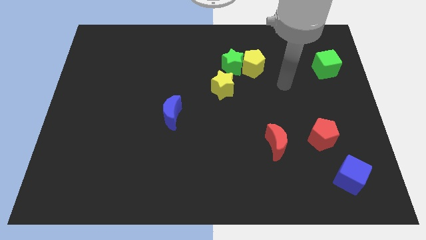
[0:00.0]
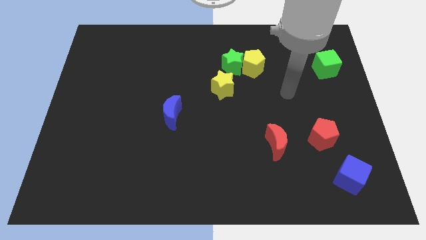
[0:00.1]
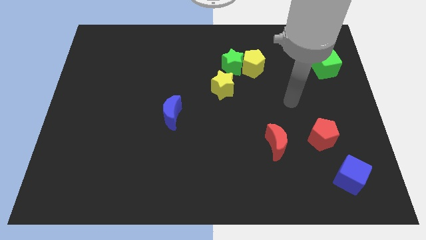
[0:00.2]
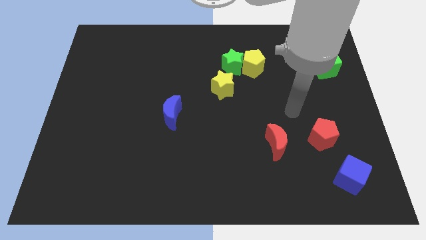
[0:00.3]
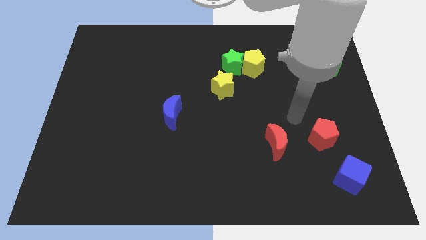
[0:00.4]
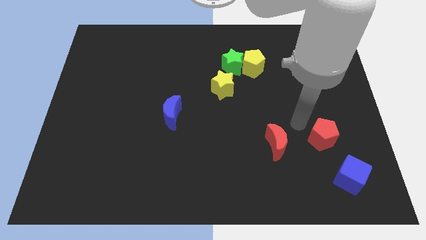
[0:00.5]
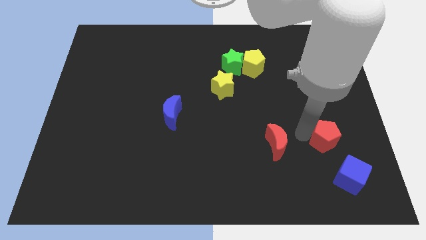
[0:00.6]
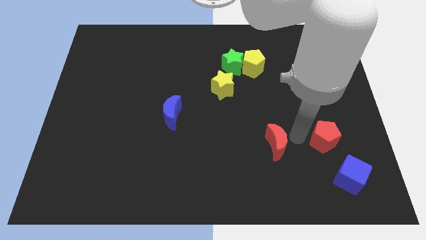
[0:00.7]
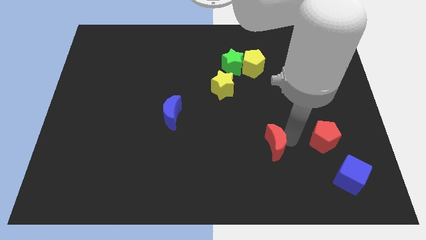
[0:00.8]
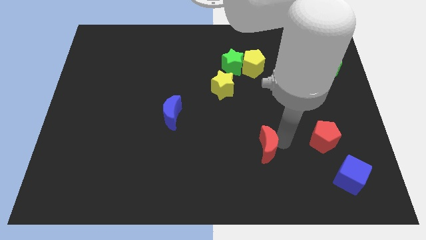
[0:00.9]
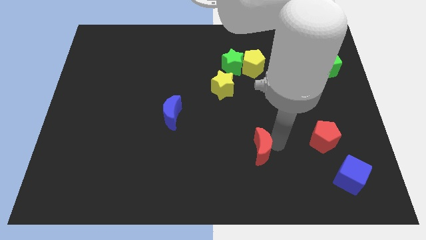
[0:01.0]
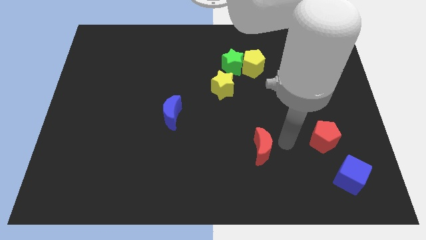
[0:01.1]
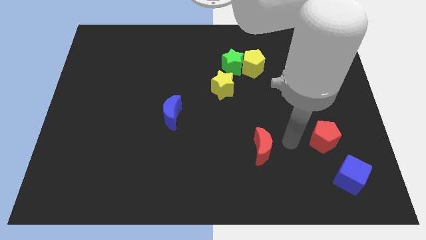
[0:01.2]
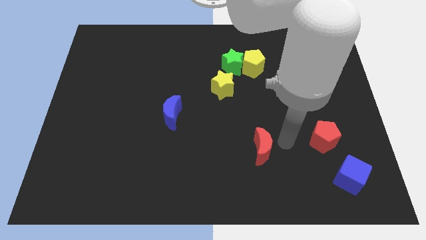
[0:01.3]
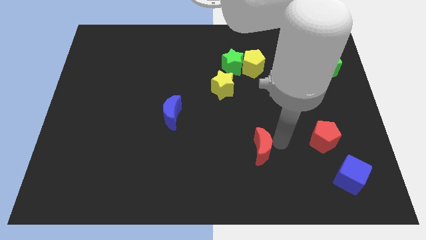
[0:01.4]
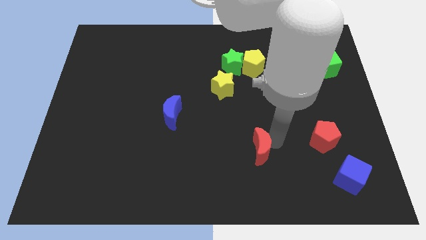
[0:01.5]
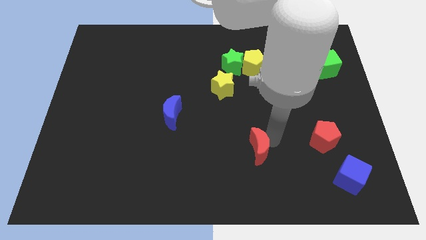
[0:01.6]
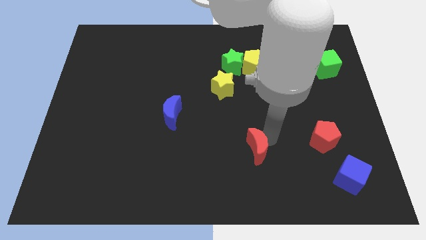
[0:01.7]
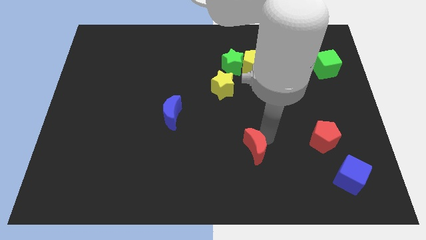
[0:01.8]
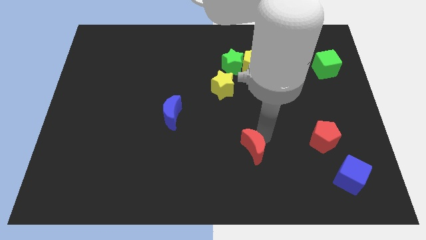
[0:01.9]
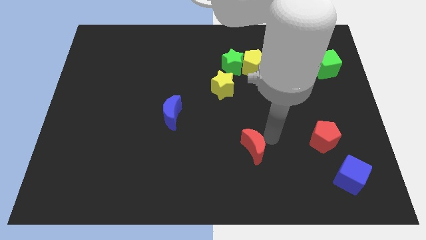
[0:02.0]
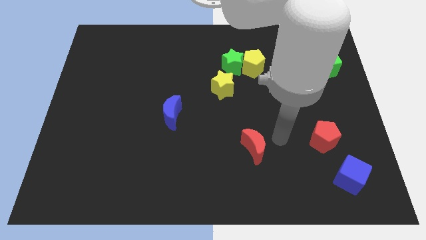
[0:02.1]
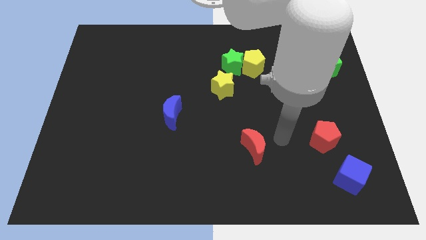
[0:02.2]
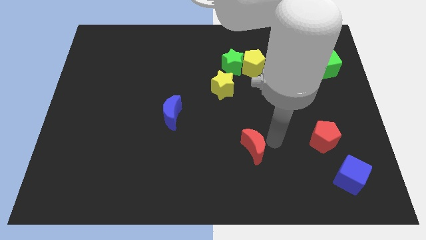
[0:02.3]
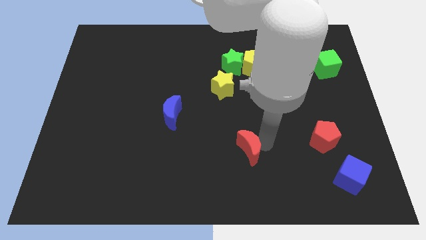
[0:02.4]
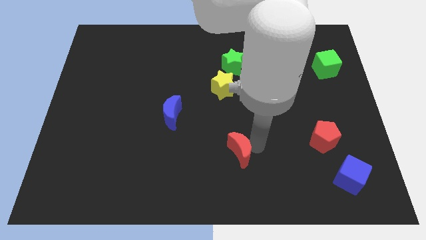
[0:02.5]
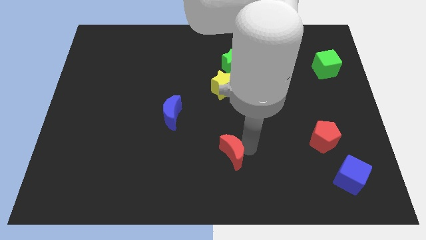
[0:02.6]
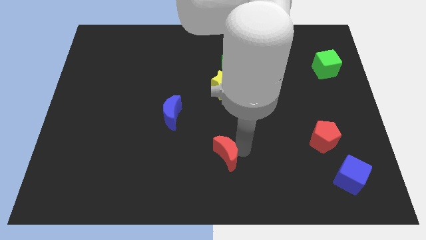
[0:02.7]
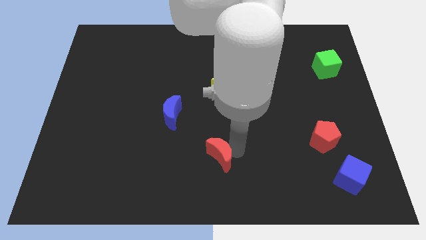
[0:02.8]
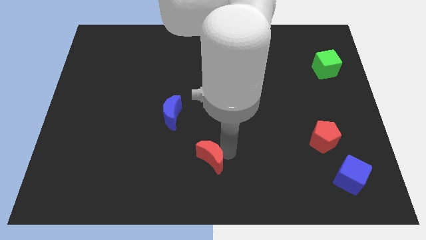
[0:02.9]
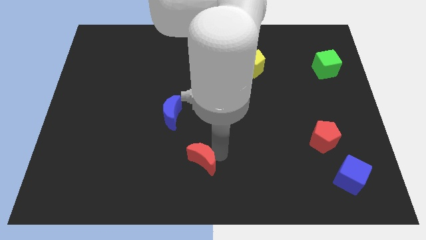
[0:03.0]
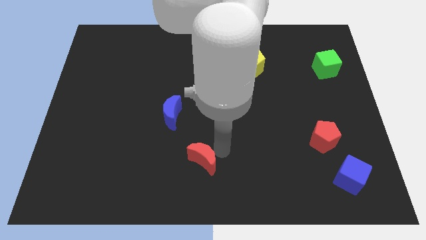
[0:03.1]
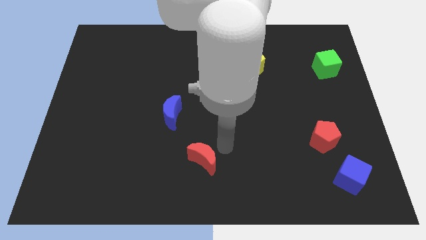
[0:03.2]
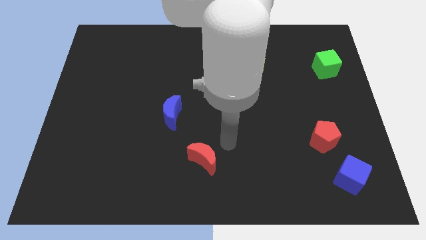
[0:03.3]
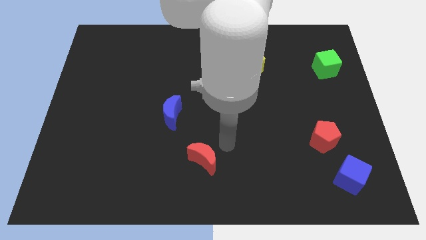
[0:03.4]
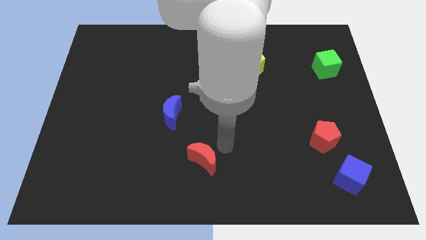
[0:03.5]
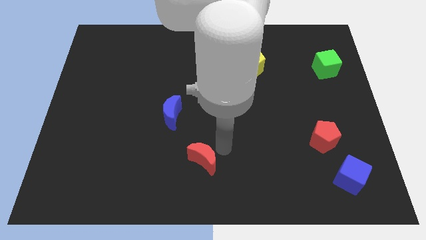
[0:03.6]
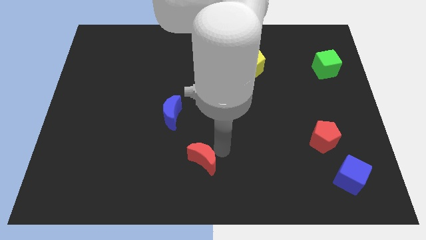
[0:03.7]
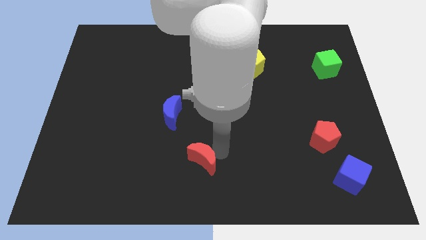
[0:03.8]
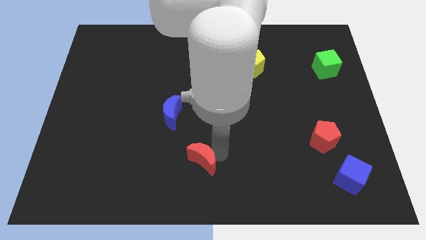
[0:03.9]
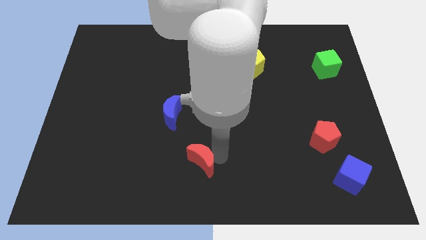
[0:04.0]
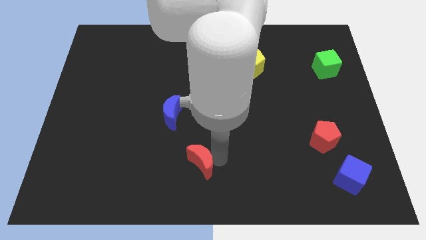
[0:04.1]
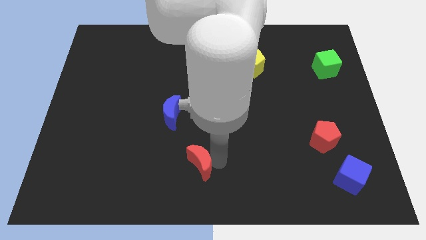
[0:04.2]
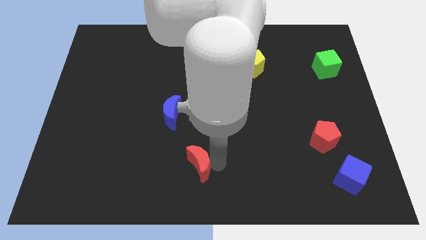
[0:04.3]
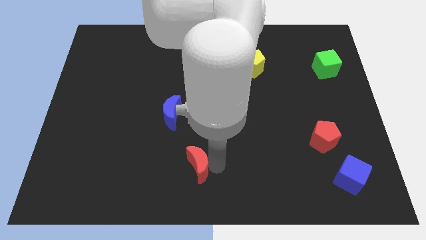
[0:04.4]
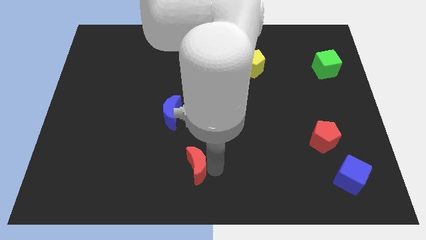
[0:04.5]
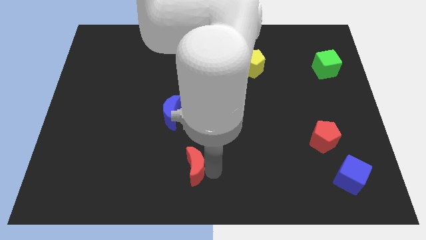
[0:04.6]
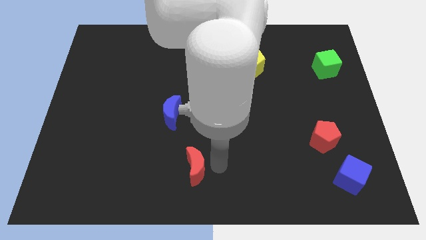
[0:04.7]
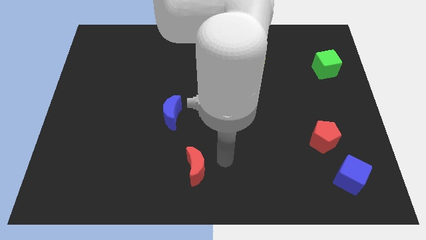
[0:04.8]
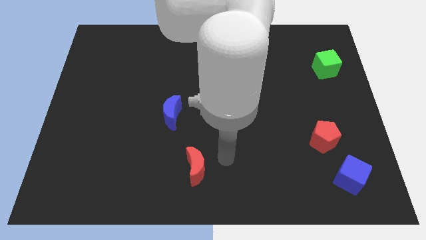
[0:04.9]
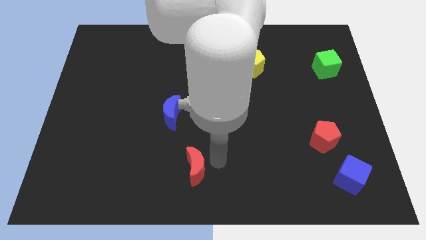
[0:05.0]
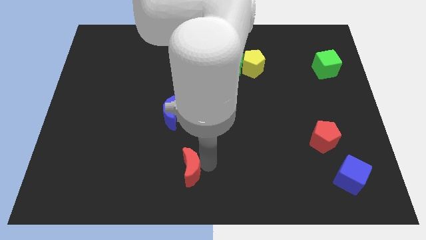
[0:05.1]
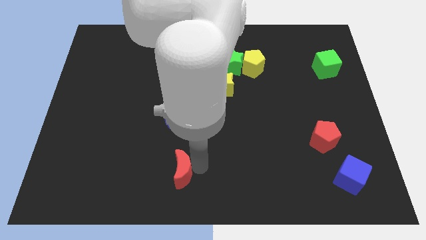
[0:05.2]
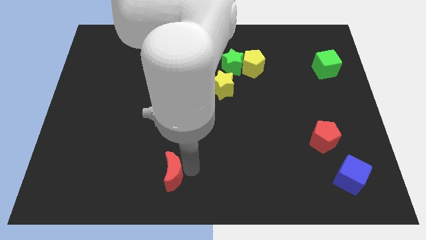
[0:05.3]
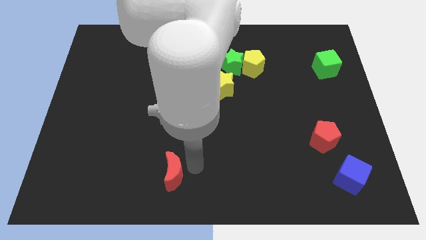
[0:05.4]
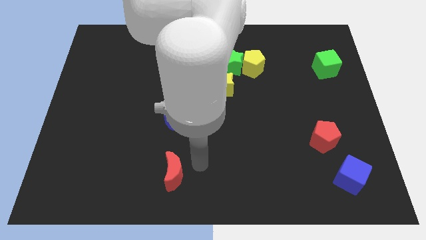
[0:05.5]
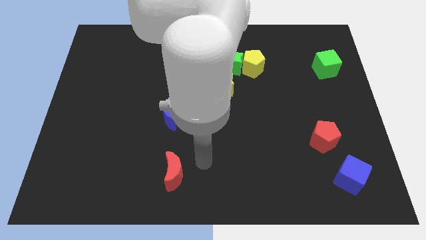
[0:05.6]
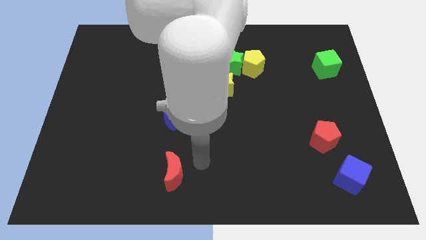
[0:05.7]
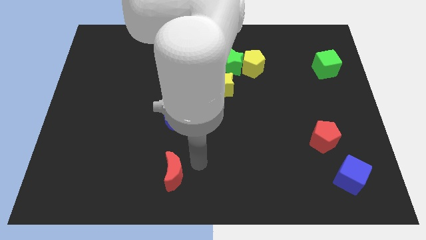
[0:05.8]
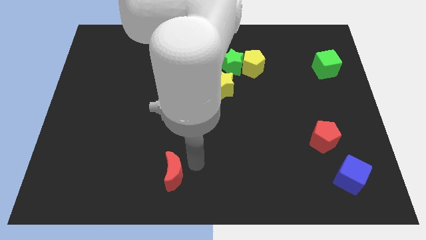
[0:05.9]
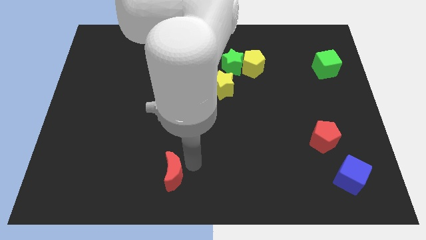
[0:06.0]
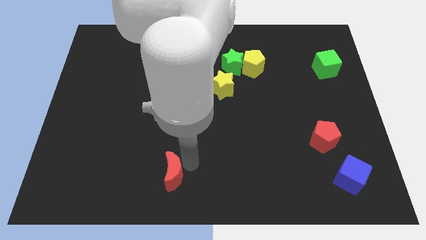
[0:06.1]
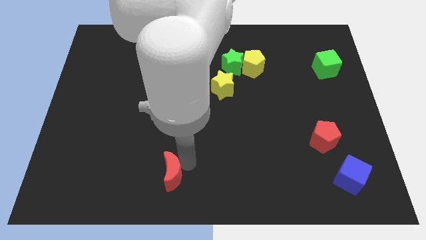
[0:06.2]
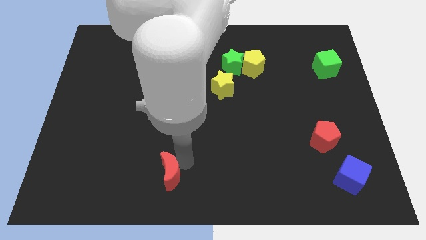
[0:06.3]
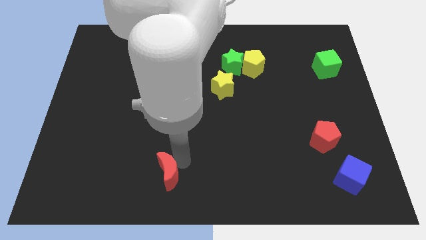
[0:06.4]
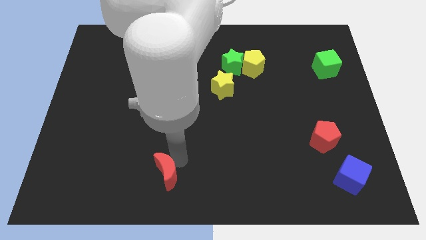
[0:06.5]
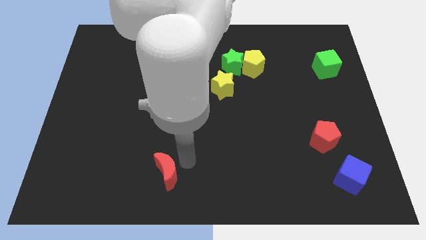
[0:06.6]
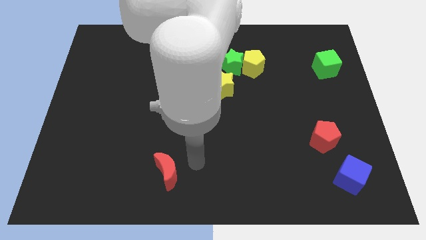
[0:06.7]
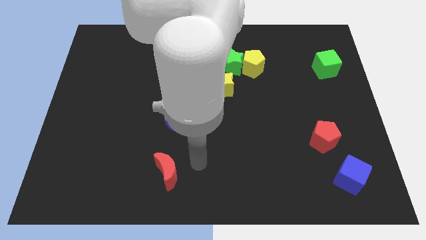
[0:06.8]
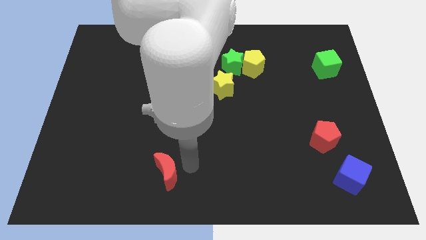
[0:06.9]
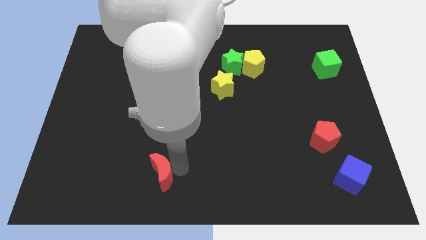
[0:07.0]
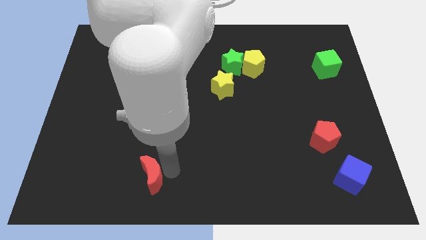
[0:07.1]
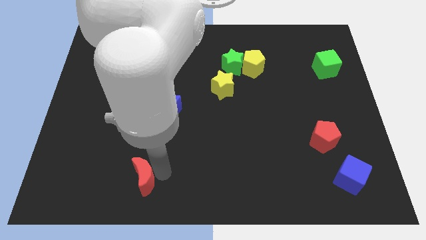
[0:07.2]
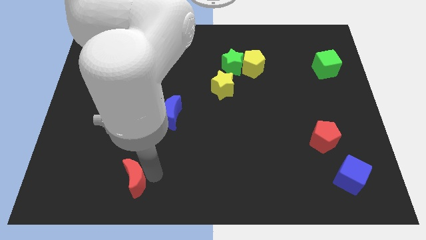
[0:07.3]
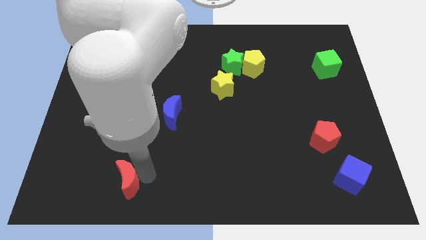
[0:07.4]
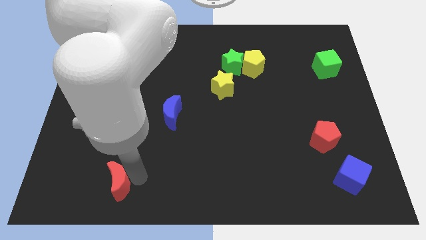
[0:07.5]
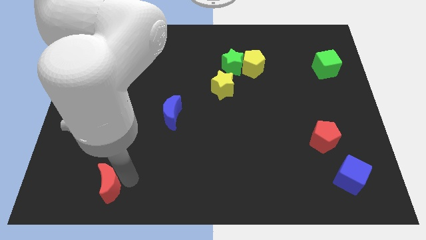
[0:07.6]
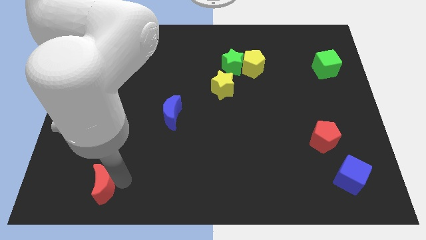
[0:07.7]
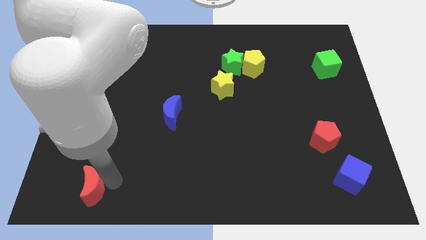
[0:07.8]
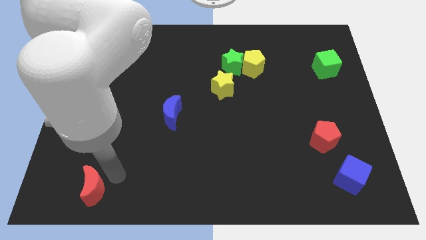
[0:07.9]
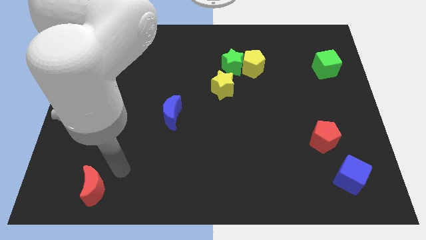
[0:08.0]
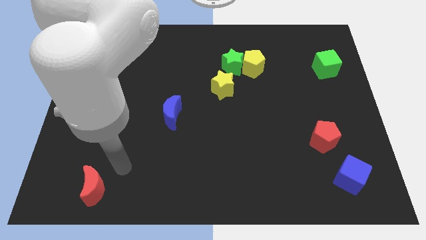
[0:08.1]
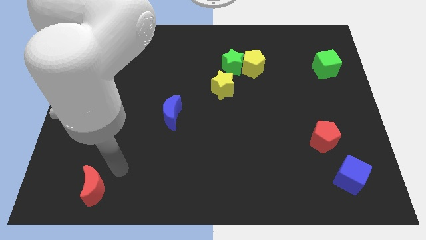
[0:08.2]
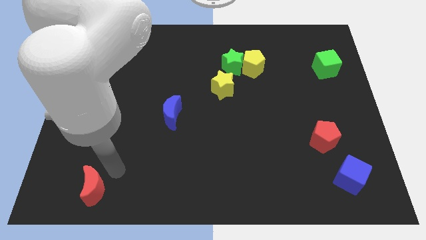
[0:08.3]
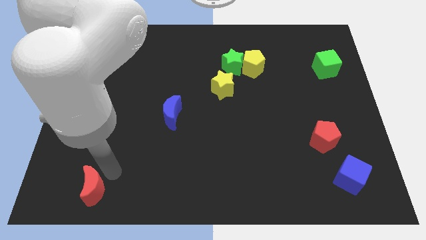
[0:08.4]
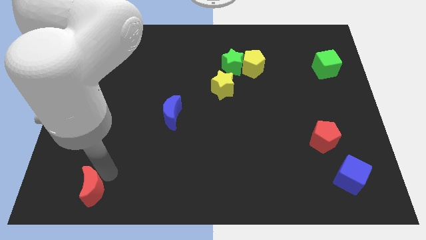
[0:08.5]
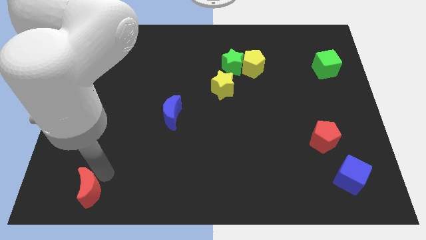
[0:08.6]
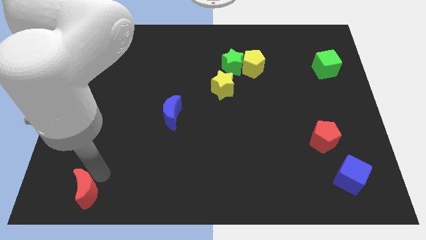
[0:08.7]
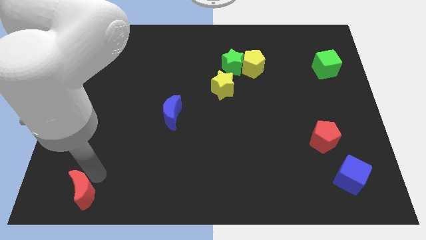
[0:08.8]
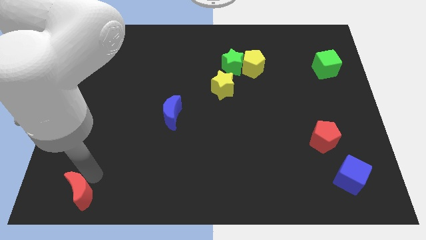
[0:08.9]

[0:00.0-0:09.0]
push the red moon to the bottom left of the board
